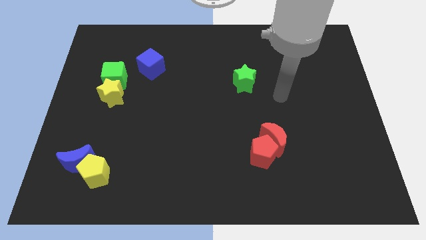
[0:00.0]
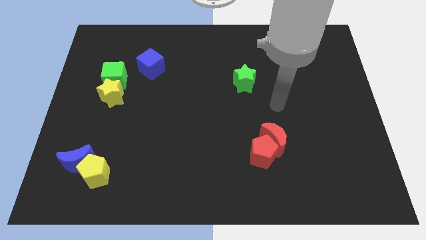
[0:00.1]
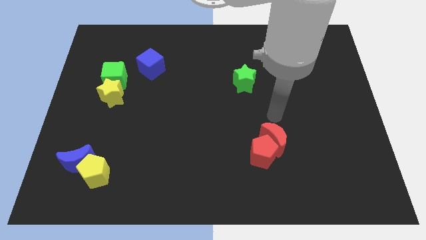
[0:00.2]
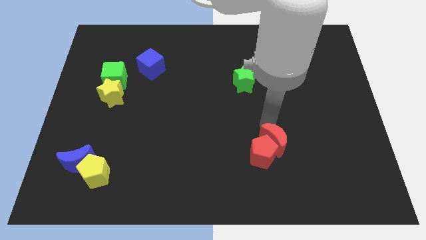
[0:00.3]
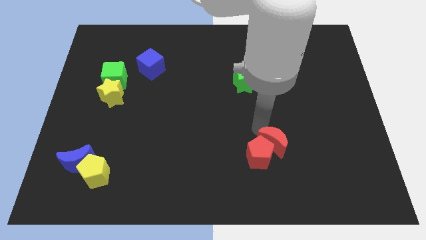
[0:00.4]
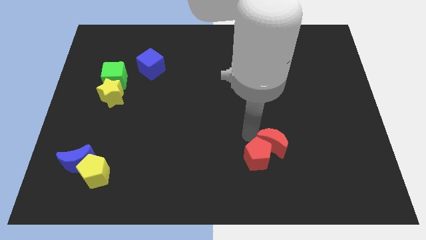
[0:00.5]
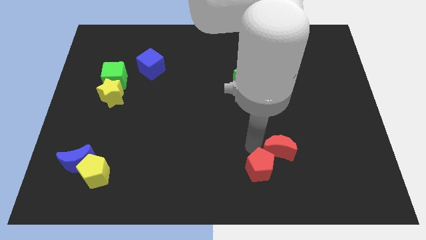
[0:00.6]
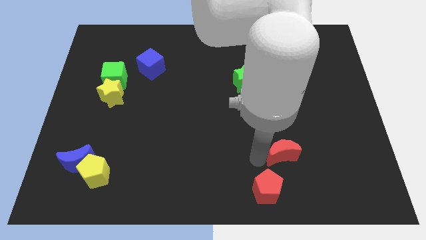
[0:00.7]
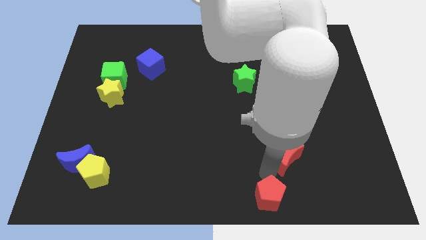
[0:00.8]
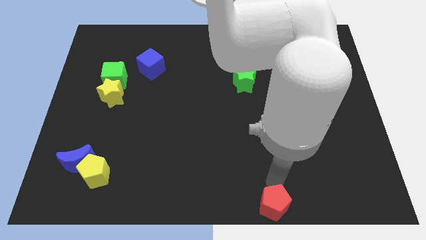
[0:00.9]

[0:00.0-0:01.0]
separate the red moon from the red pentagon

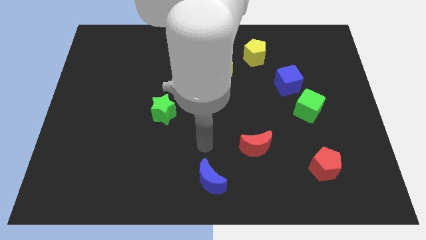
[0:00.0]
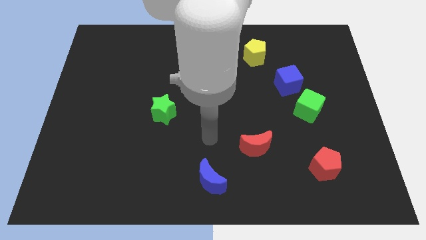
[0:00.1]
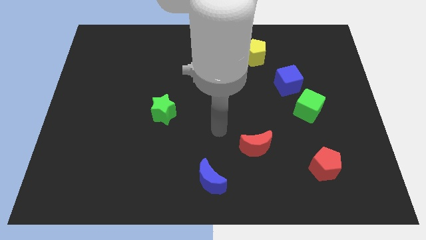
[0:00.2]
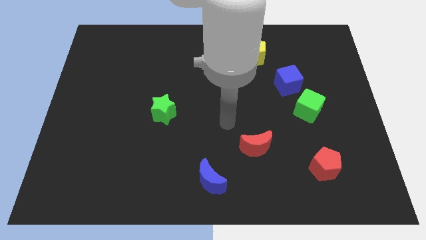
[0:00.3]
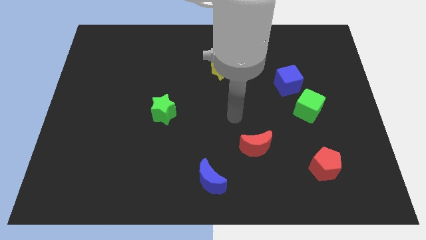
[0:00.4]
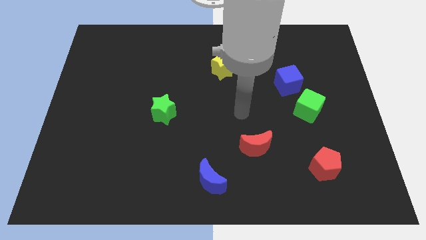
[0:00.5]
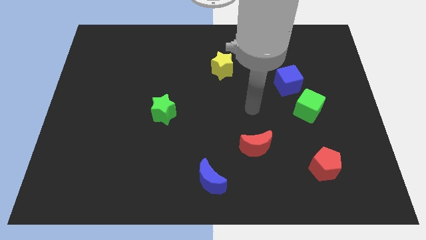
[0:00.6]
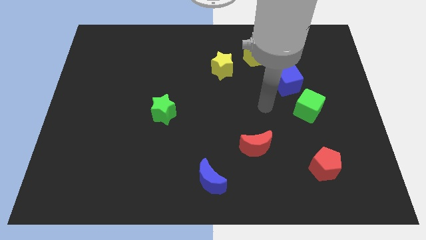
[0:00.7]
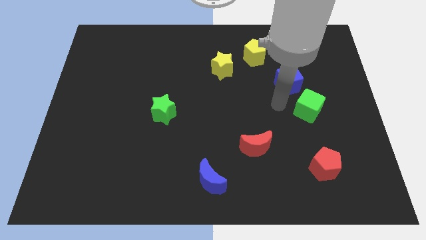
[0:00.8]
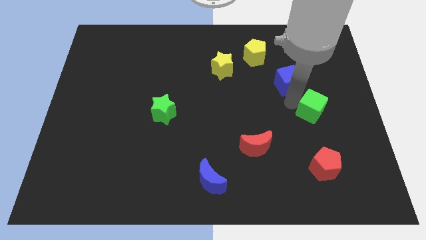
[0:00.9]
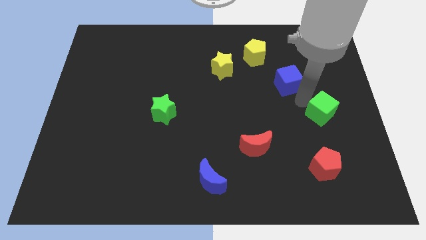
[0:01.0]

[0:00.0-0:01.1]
pull the blue cube apart from the green cube

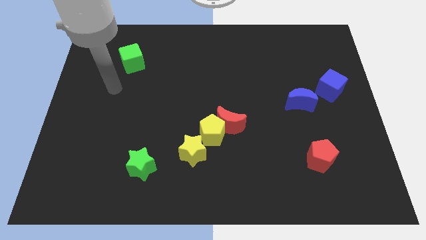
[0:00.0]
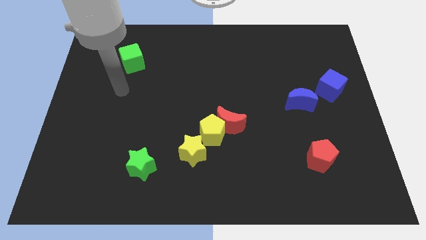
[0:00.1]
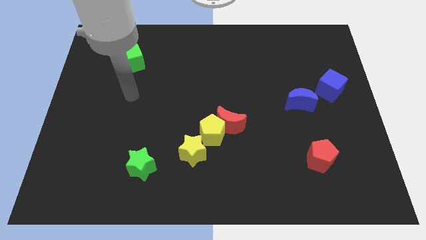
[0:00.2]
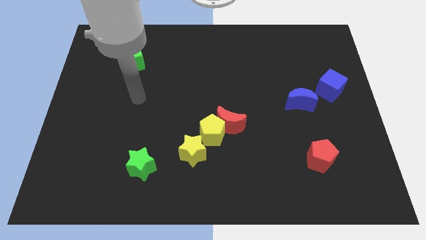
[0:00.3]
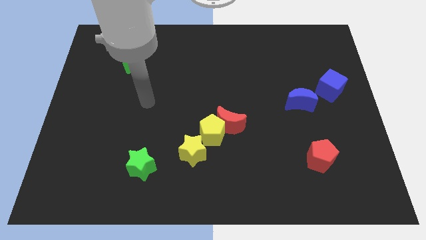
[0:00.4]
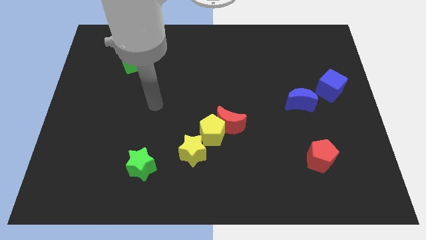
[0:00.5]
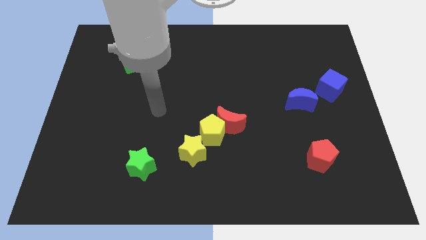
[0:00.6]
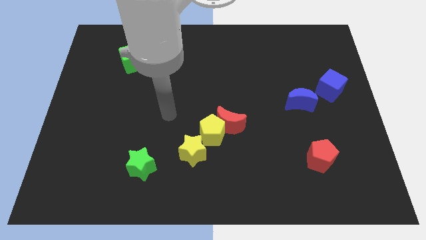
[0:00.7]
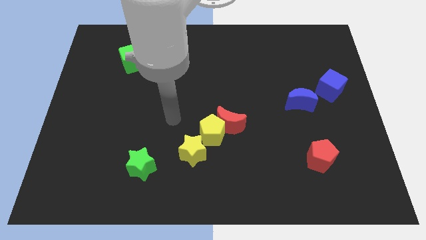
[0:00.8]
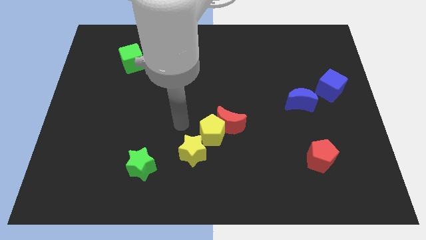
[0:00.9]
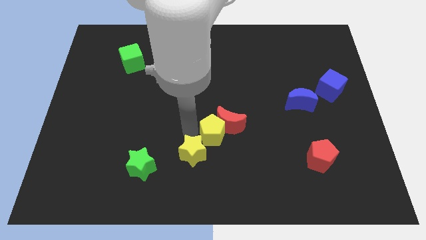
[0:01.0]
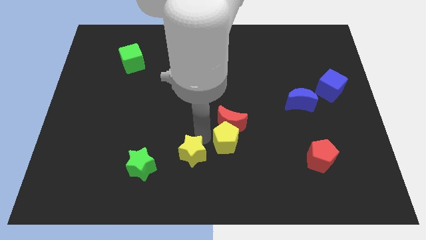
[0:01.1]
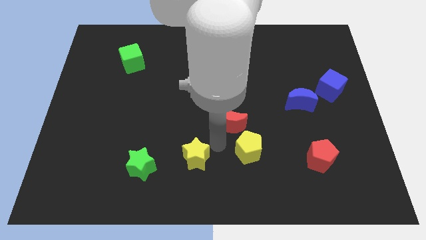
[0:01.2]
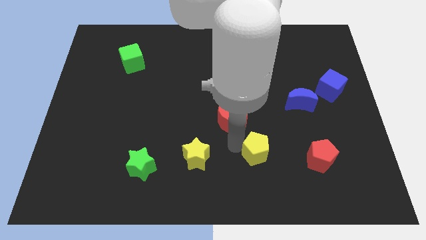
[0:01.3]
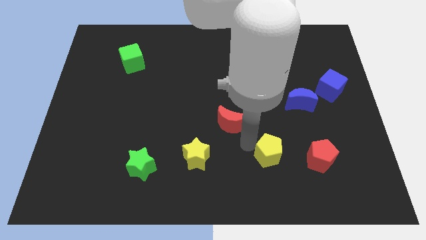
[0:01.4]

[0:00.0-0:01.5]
move the red moon away from the yellow pentagon

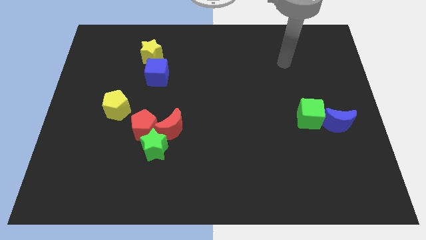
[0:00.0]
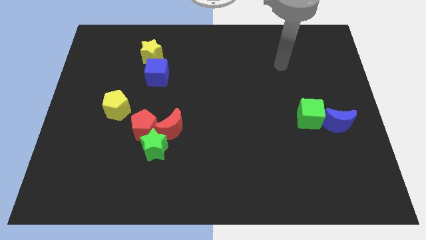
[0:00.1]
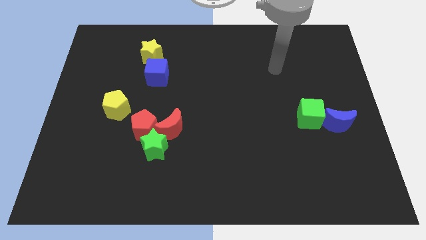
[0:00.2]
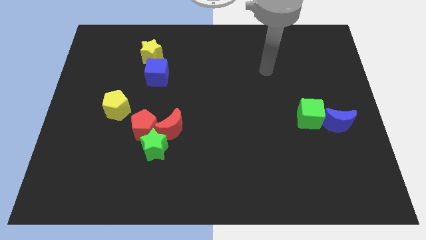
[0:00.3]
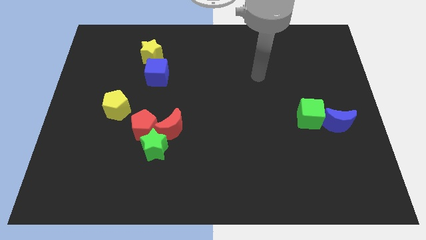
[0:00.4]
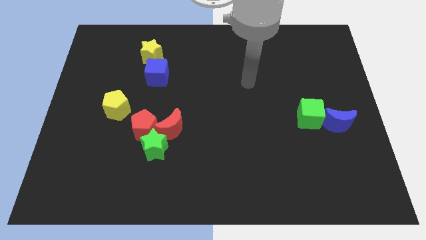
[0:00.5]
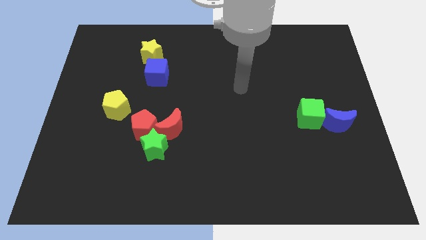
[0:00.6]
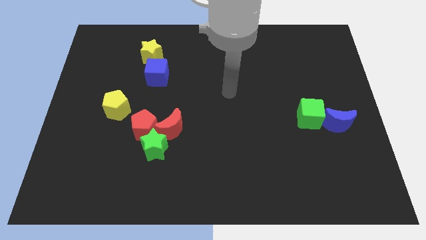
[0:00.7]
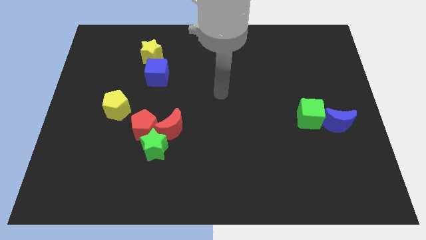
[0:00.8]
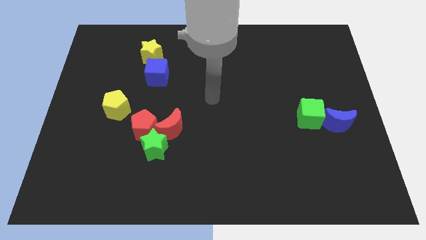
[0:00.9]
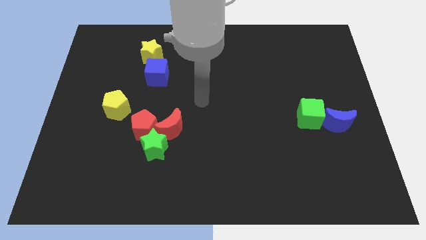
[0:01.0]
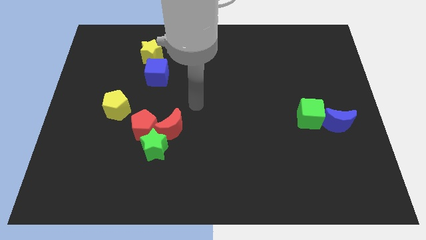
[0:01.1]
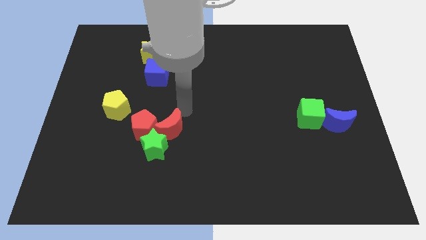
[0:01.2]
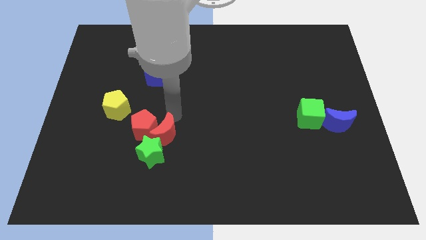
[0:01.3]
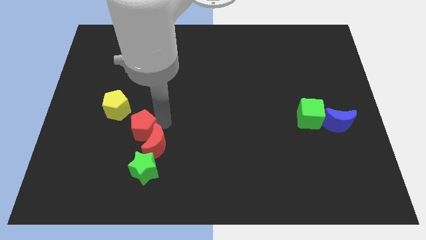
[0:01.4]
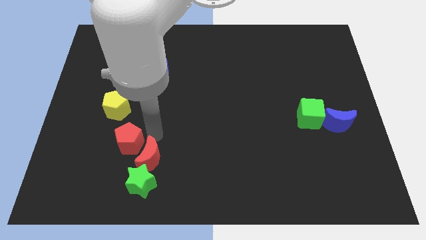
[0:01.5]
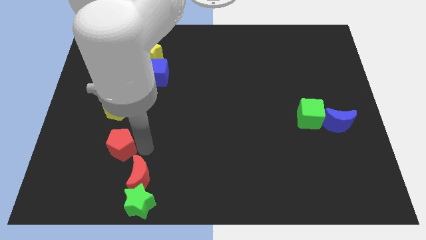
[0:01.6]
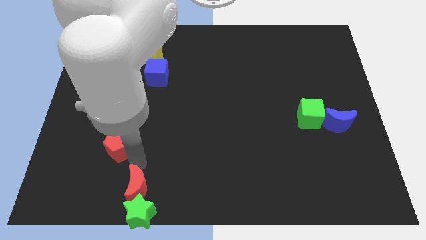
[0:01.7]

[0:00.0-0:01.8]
move the green star away from the red pentagon and red moon

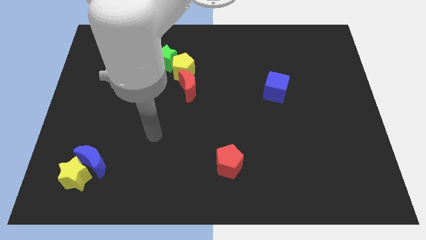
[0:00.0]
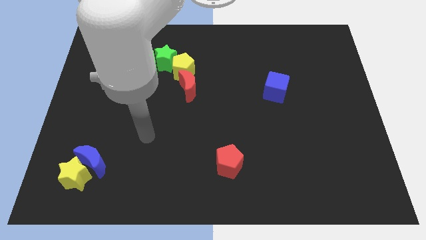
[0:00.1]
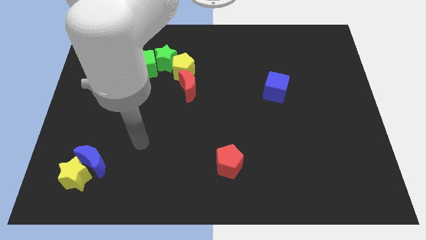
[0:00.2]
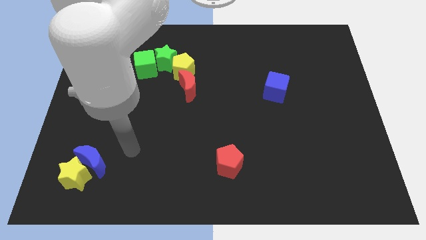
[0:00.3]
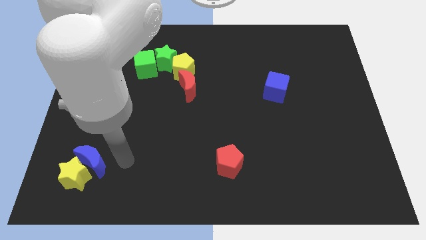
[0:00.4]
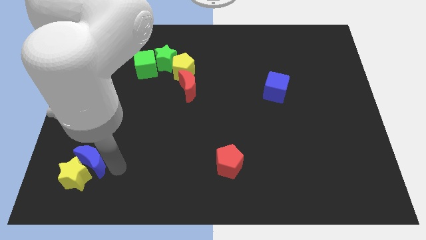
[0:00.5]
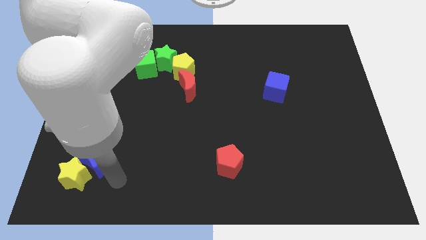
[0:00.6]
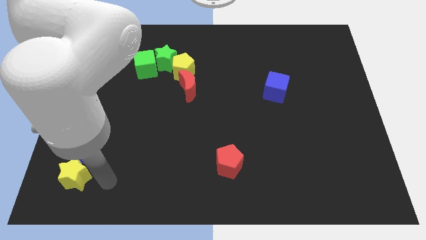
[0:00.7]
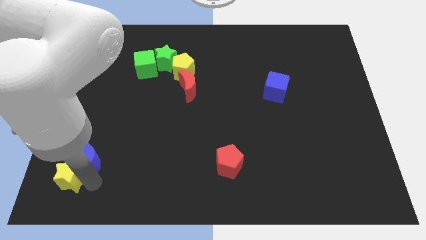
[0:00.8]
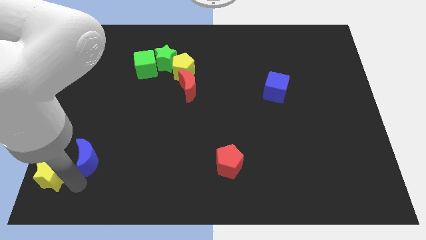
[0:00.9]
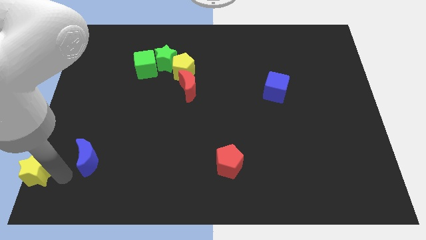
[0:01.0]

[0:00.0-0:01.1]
move the blue moon away from the yellow star

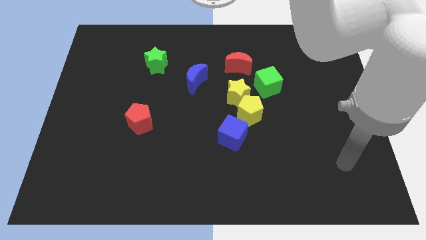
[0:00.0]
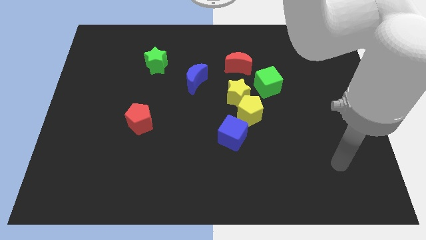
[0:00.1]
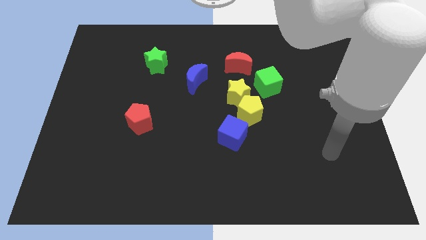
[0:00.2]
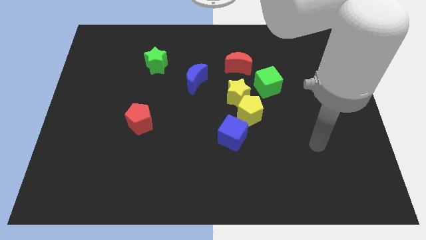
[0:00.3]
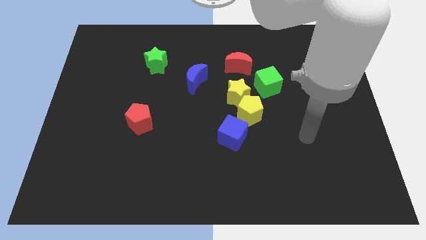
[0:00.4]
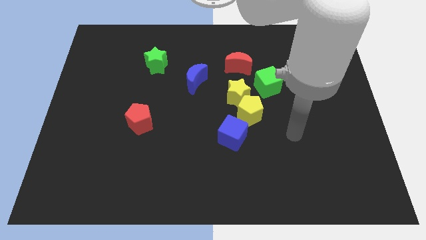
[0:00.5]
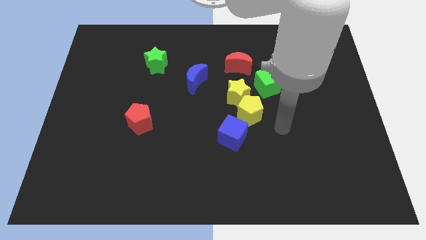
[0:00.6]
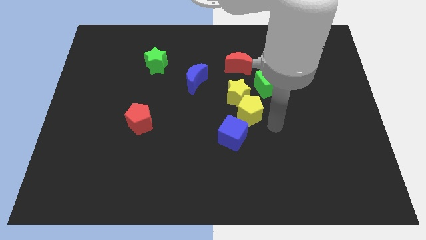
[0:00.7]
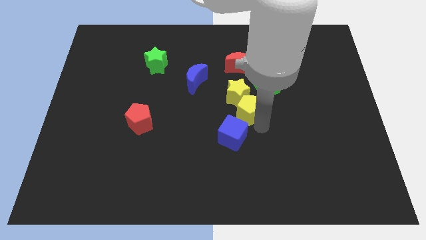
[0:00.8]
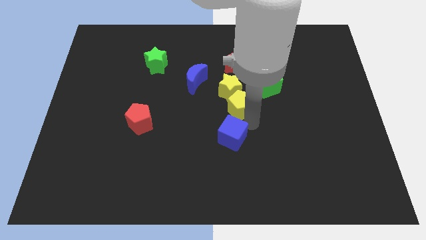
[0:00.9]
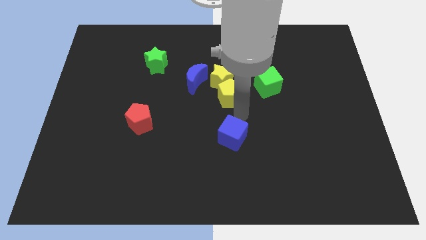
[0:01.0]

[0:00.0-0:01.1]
move the blue cube away from the yellow pentagon

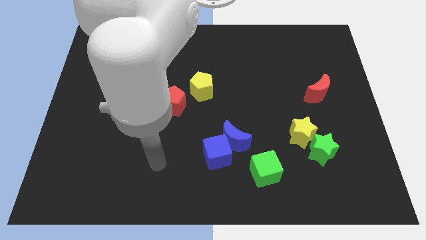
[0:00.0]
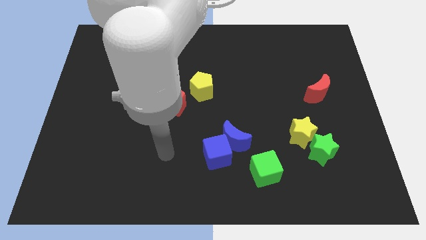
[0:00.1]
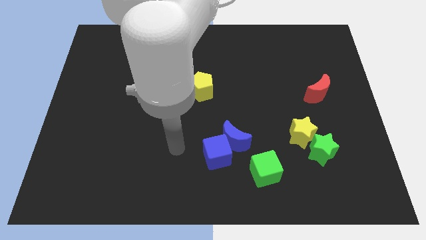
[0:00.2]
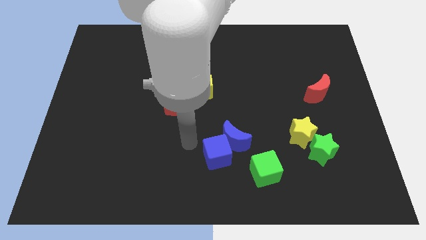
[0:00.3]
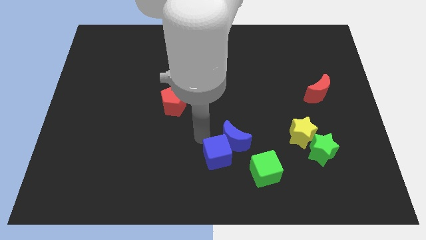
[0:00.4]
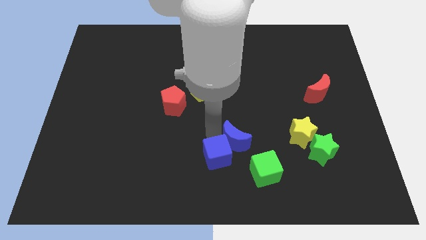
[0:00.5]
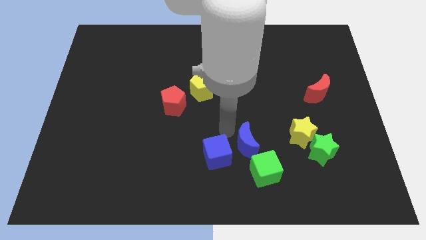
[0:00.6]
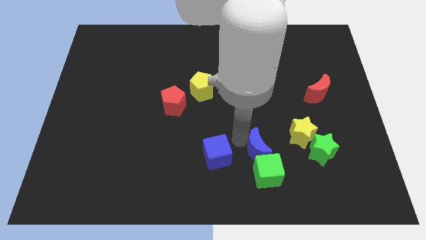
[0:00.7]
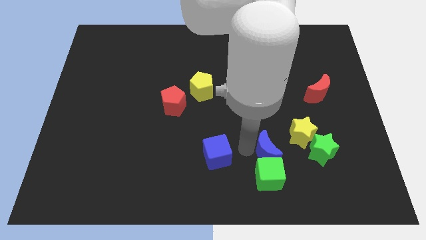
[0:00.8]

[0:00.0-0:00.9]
move the blue cube away from the blue moon

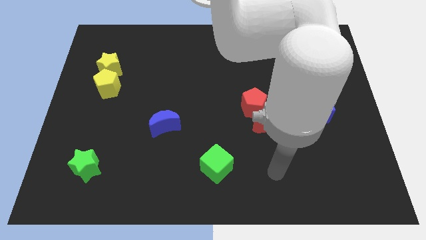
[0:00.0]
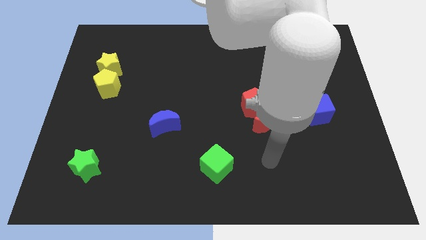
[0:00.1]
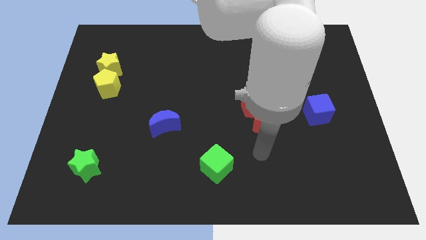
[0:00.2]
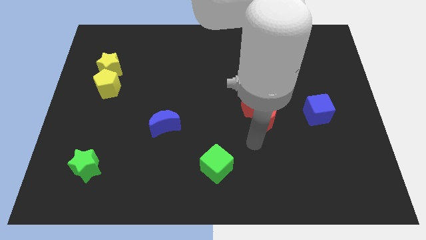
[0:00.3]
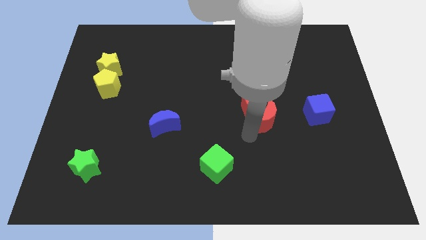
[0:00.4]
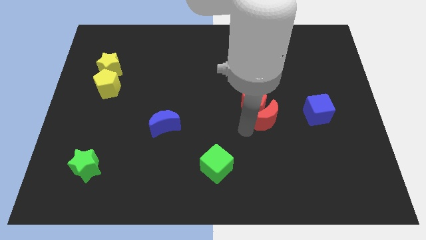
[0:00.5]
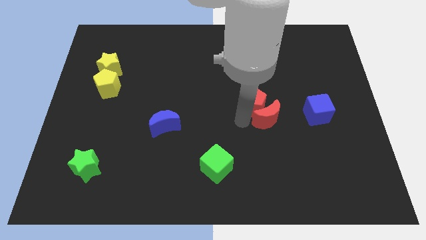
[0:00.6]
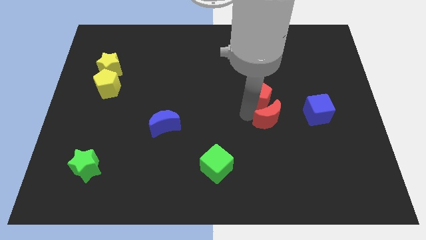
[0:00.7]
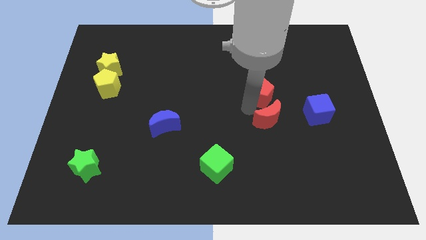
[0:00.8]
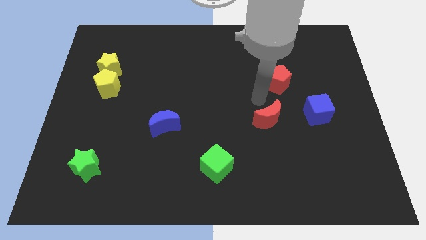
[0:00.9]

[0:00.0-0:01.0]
move the red moon away from the red pentagon
